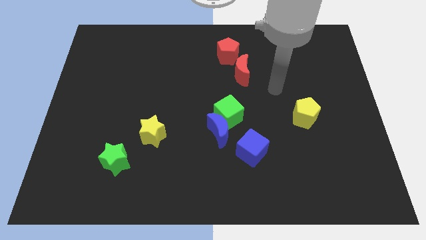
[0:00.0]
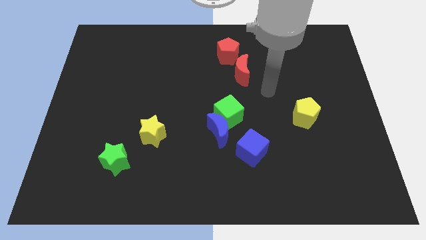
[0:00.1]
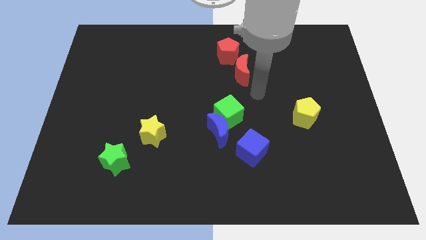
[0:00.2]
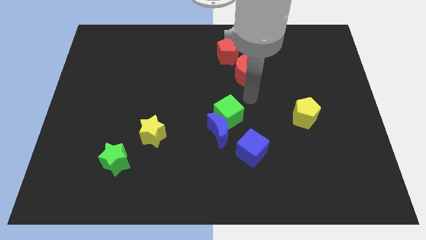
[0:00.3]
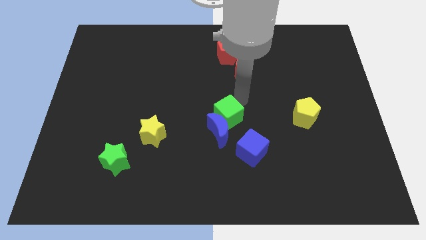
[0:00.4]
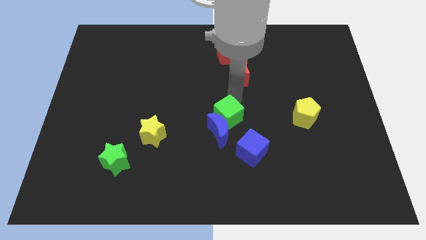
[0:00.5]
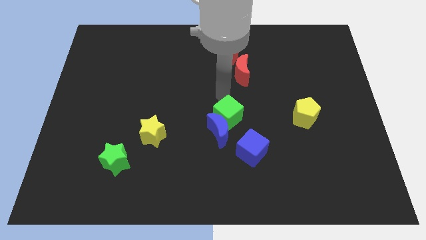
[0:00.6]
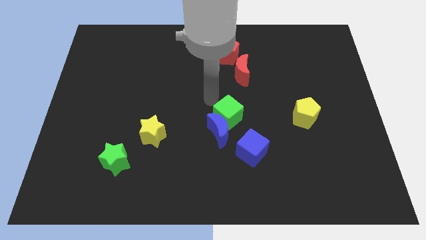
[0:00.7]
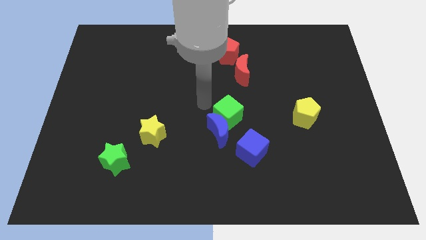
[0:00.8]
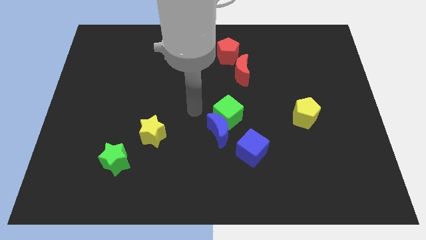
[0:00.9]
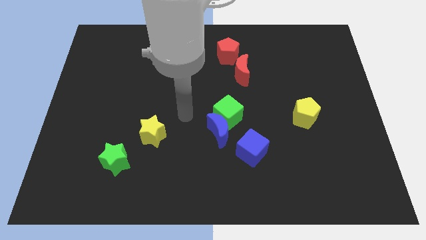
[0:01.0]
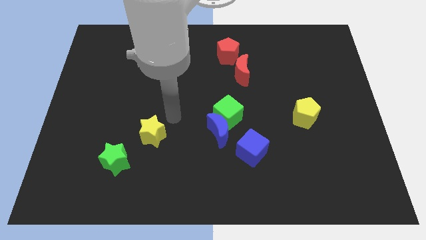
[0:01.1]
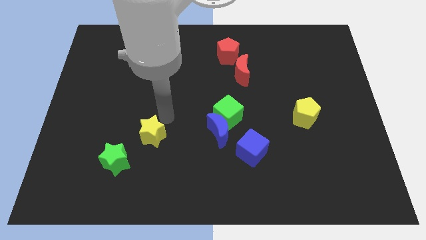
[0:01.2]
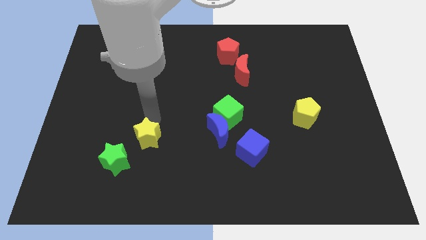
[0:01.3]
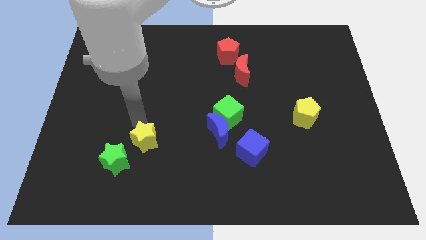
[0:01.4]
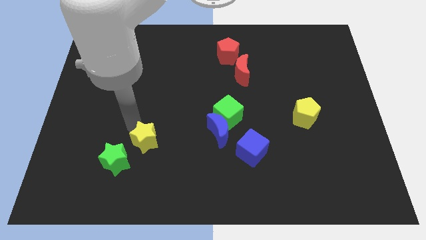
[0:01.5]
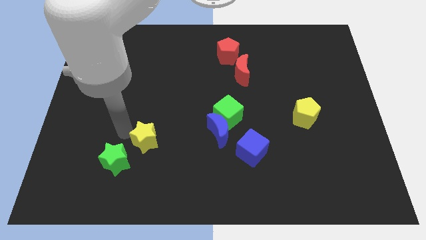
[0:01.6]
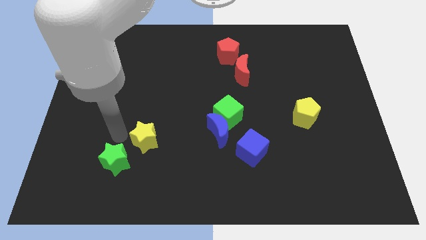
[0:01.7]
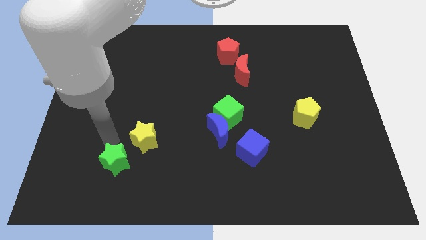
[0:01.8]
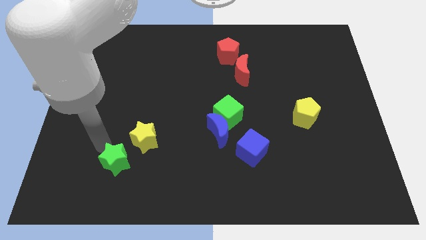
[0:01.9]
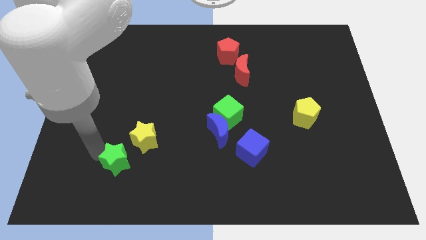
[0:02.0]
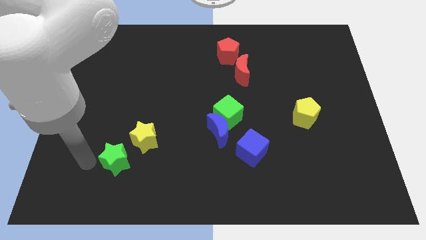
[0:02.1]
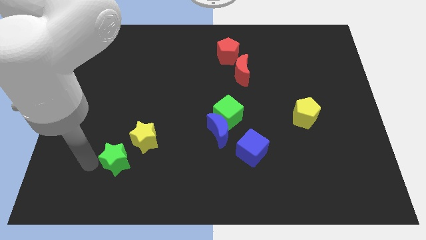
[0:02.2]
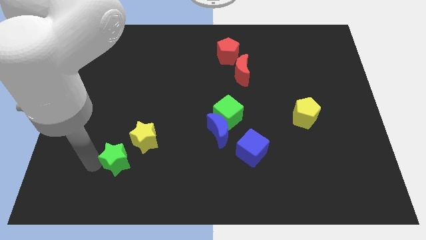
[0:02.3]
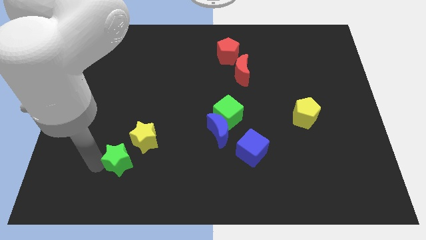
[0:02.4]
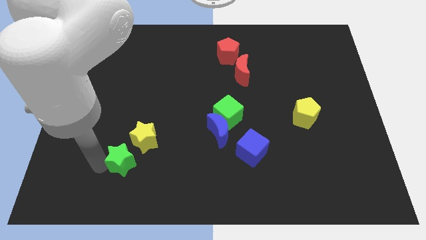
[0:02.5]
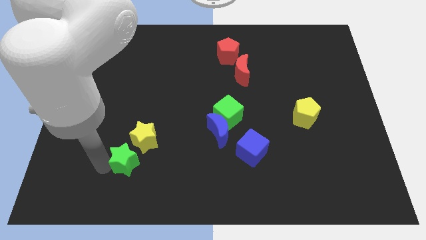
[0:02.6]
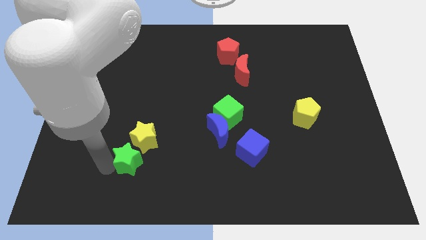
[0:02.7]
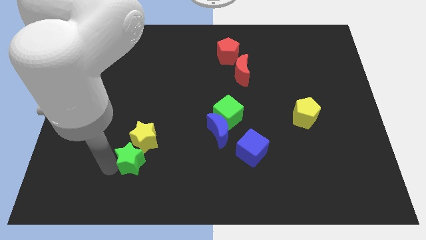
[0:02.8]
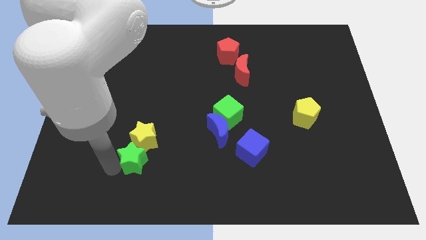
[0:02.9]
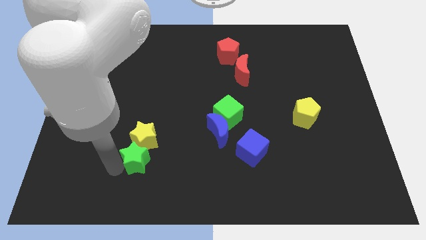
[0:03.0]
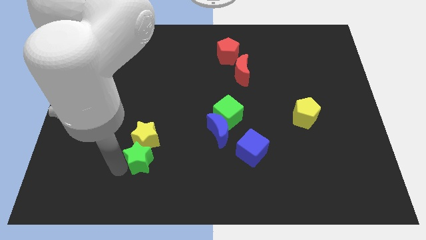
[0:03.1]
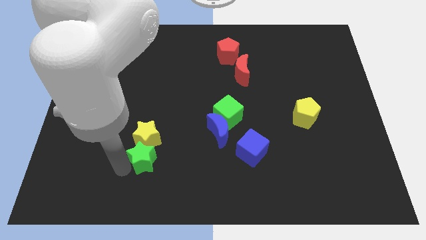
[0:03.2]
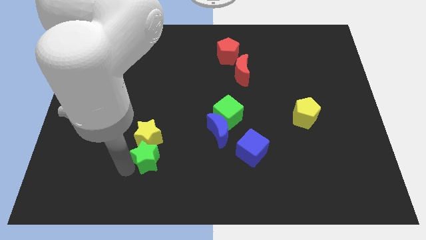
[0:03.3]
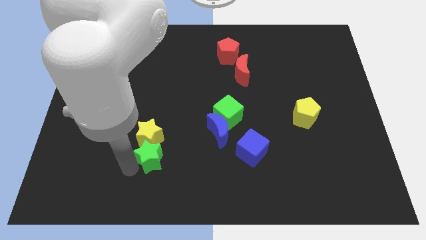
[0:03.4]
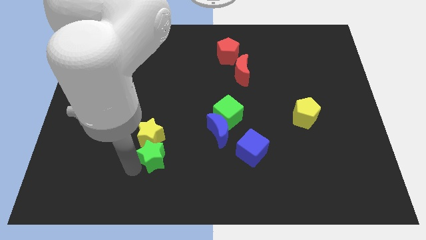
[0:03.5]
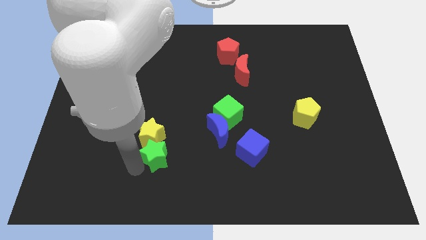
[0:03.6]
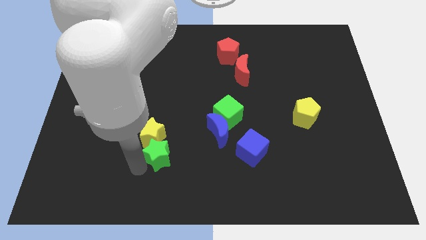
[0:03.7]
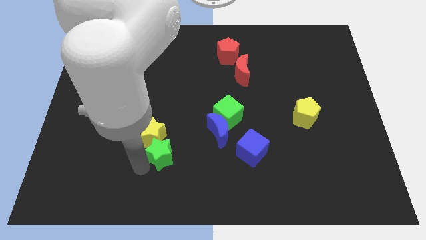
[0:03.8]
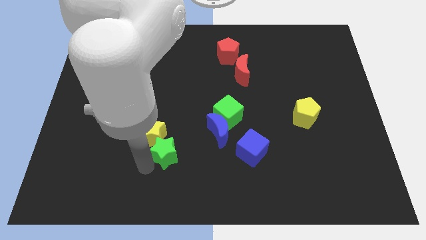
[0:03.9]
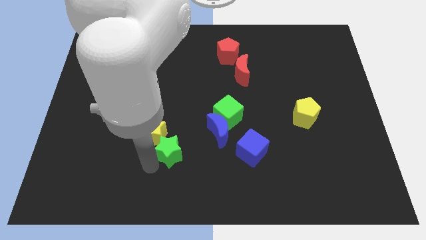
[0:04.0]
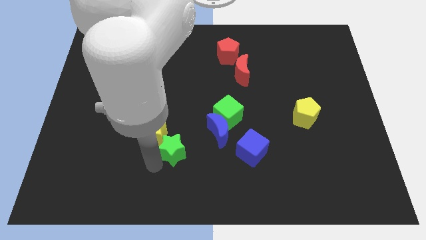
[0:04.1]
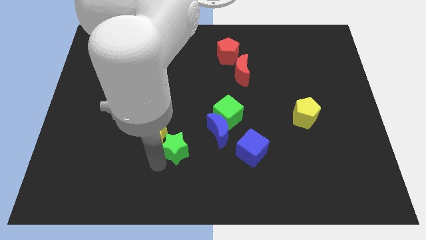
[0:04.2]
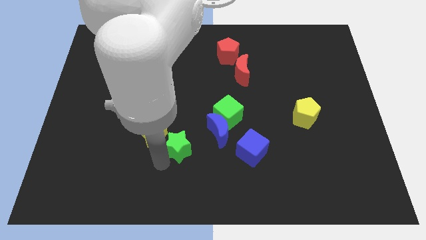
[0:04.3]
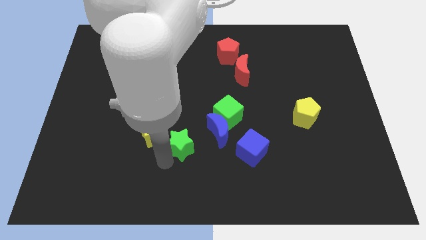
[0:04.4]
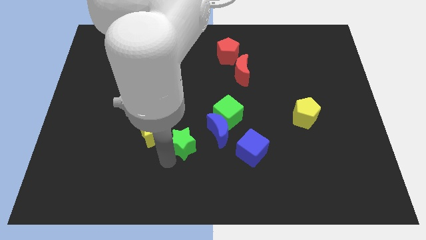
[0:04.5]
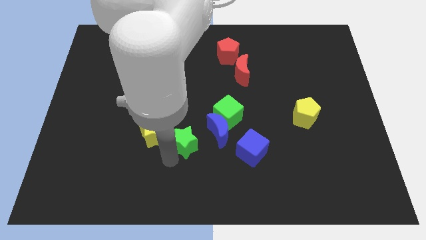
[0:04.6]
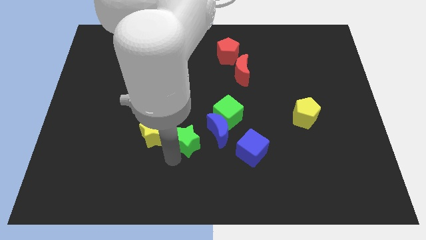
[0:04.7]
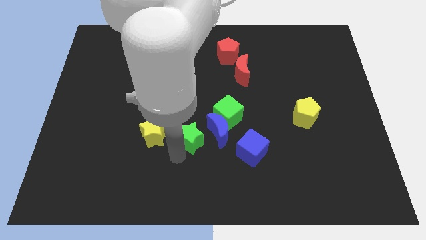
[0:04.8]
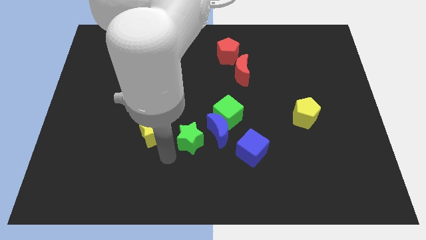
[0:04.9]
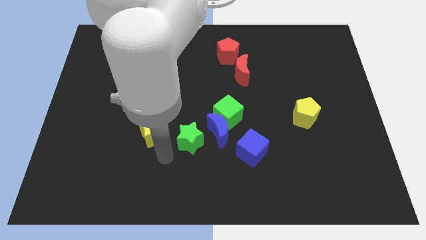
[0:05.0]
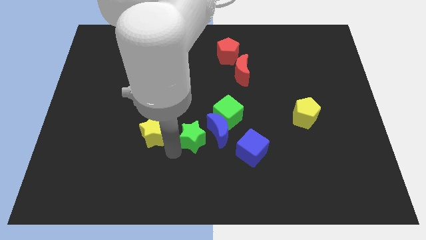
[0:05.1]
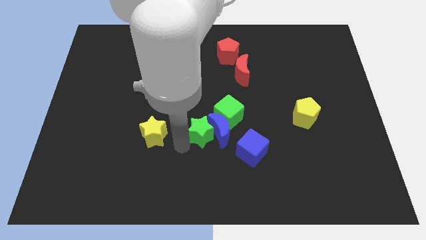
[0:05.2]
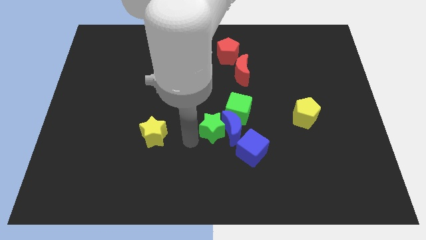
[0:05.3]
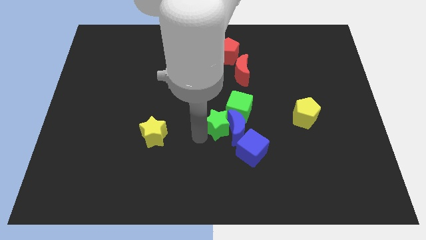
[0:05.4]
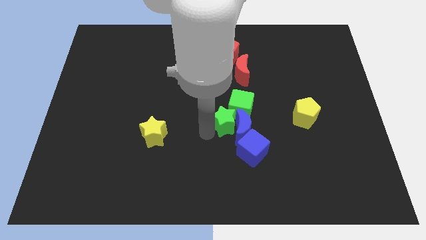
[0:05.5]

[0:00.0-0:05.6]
move the green star towards the green cube

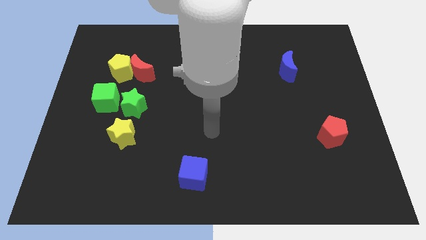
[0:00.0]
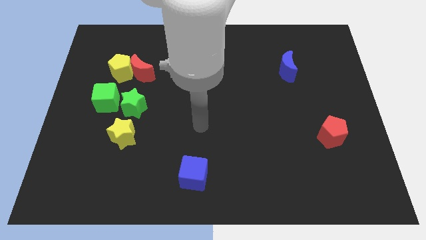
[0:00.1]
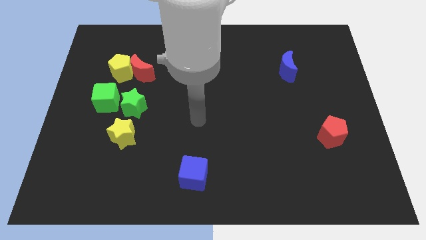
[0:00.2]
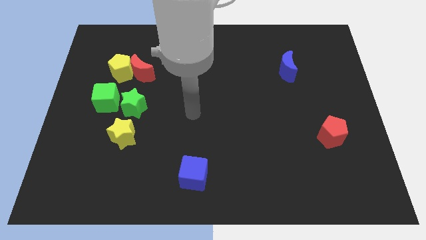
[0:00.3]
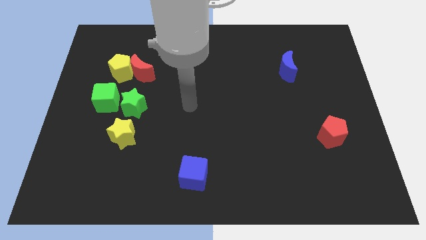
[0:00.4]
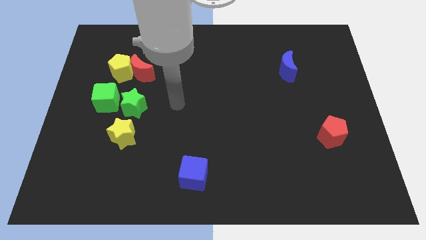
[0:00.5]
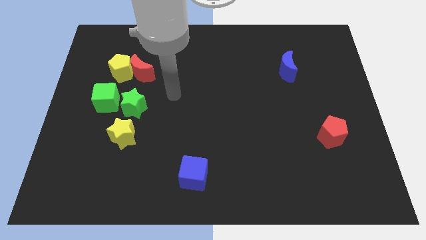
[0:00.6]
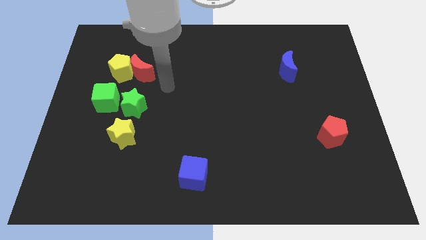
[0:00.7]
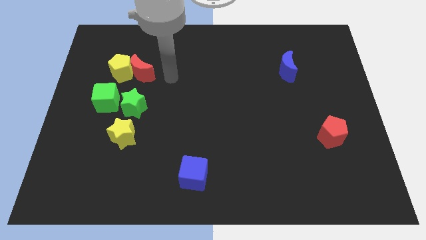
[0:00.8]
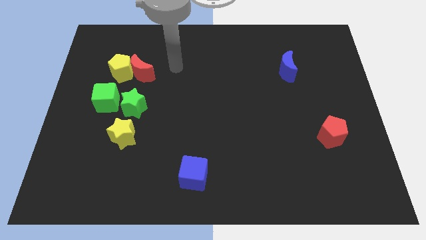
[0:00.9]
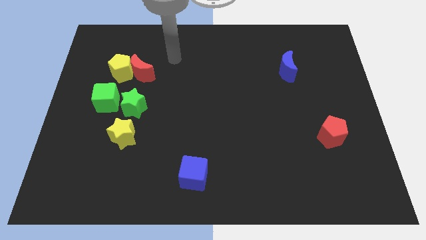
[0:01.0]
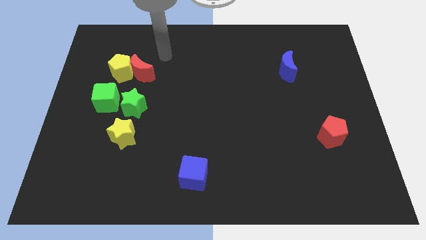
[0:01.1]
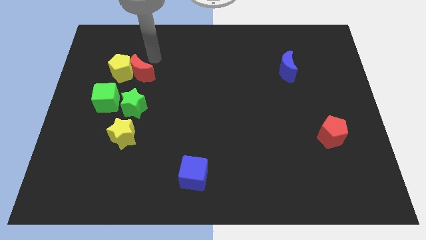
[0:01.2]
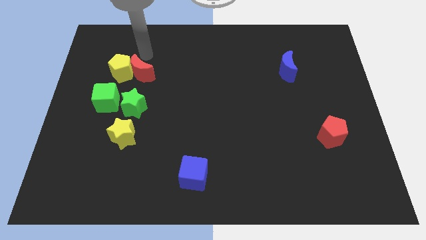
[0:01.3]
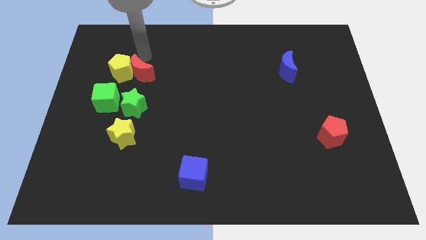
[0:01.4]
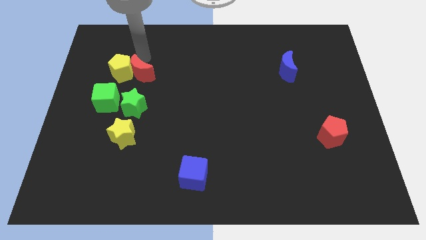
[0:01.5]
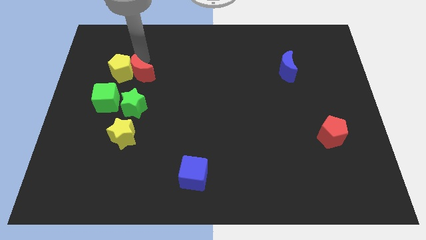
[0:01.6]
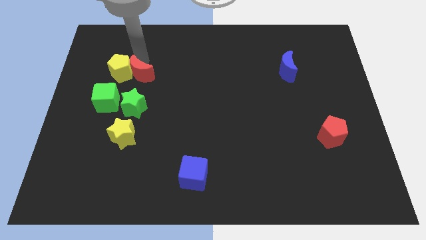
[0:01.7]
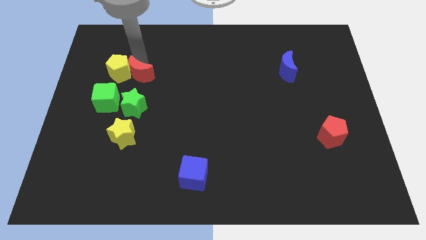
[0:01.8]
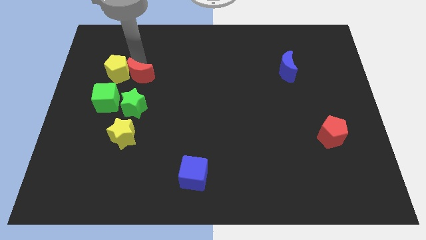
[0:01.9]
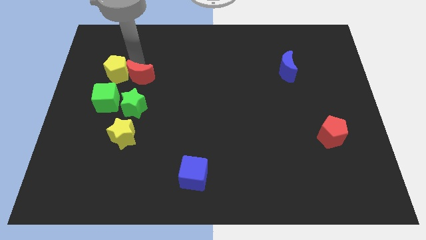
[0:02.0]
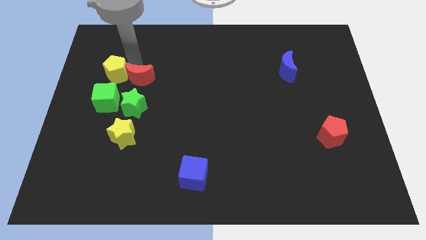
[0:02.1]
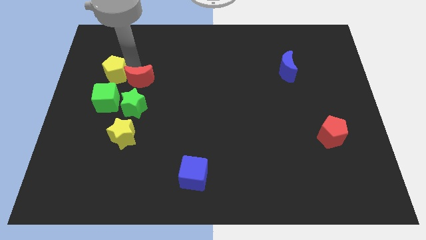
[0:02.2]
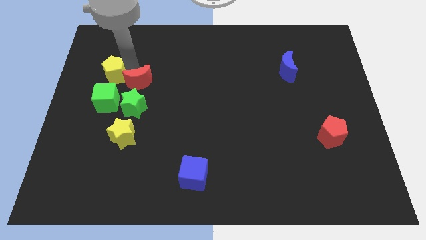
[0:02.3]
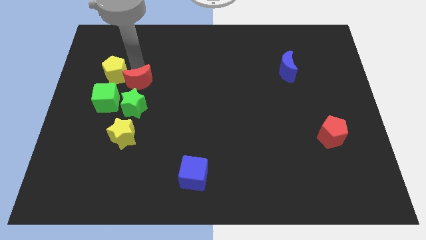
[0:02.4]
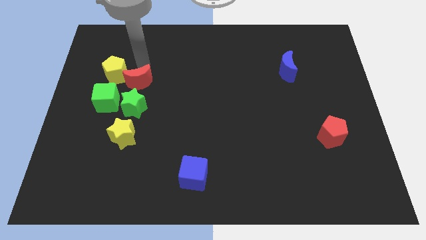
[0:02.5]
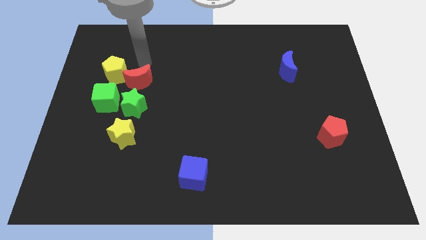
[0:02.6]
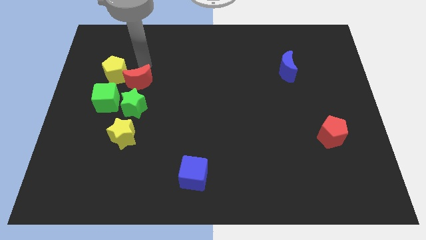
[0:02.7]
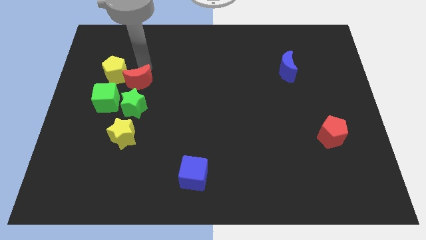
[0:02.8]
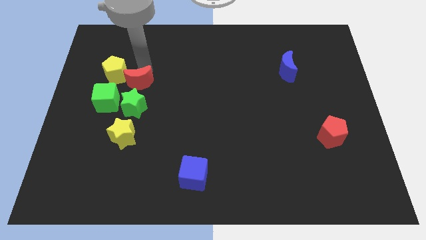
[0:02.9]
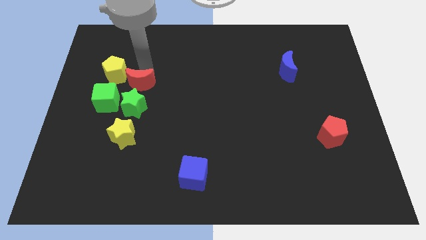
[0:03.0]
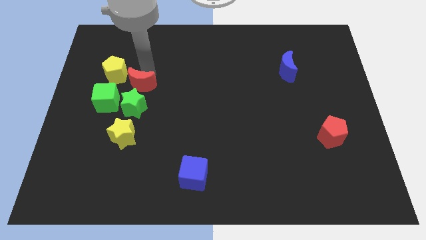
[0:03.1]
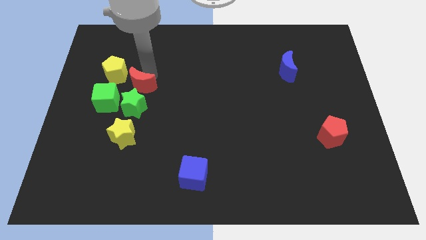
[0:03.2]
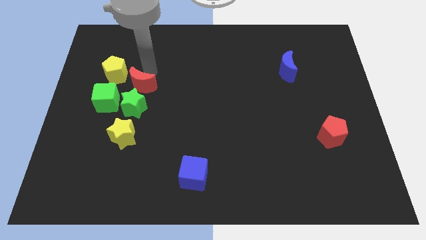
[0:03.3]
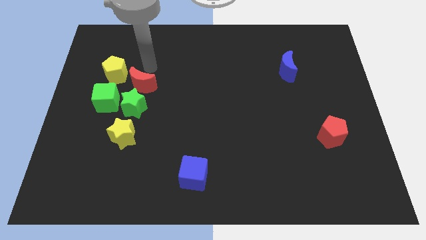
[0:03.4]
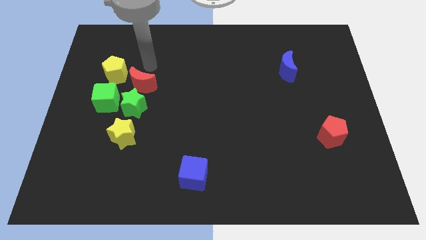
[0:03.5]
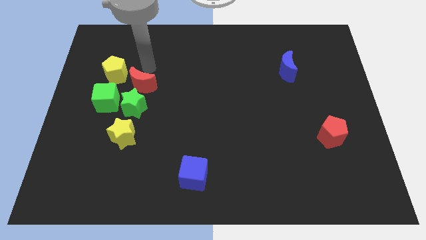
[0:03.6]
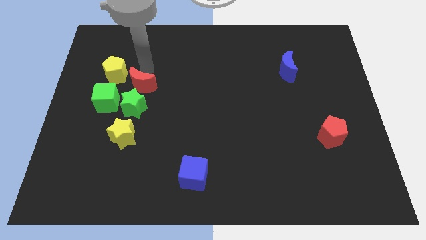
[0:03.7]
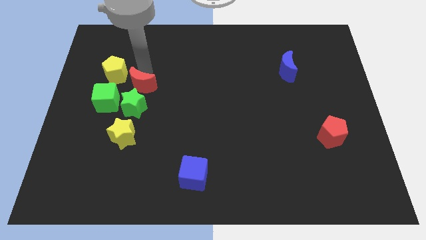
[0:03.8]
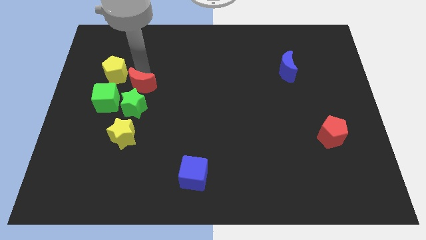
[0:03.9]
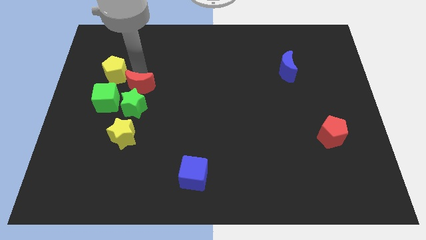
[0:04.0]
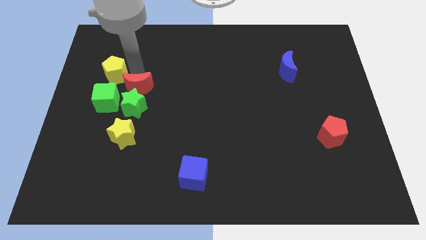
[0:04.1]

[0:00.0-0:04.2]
slide the red moon to the green star
